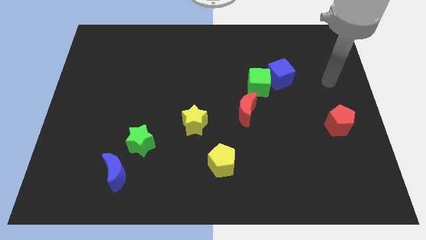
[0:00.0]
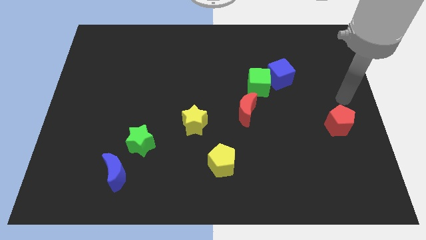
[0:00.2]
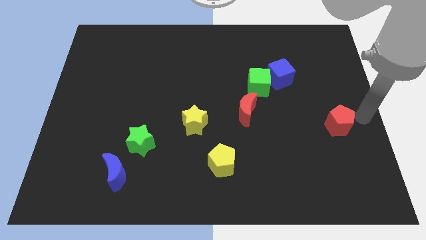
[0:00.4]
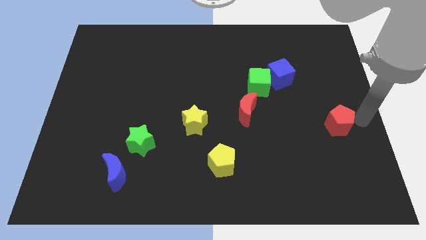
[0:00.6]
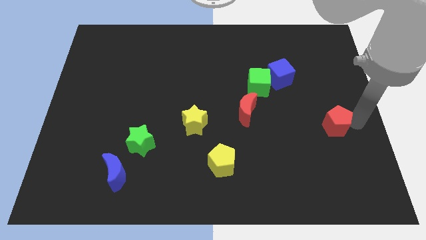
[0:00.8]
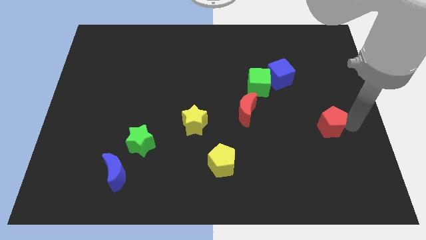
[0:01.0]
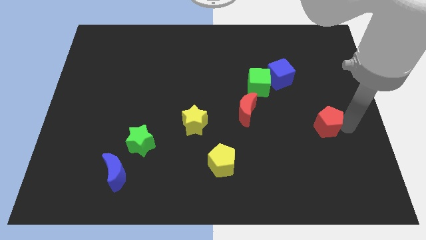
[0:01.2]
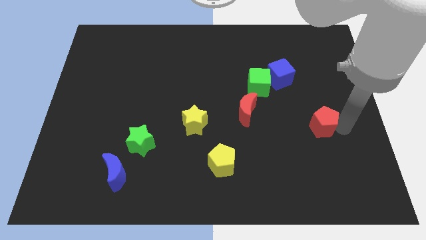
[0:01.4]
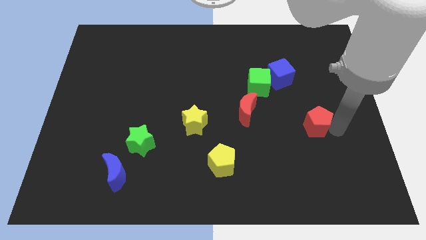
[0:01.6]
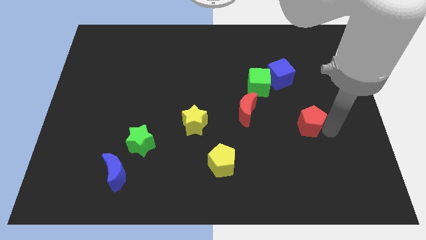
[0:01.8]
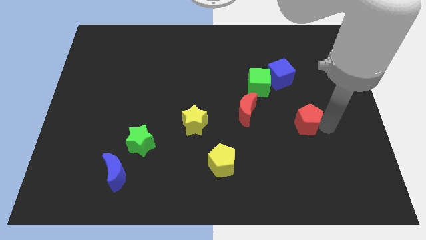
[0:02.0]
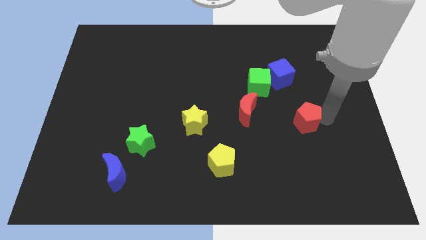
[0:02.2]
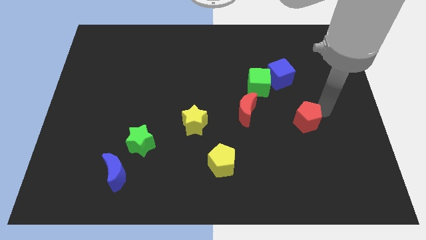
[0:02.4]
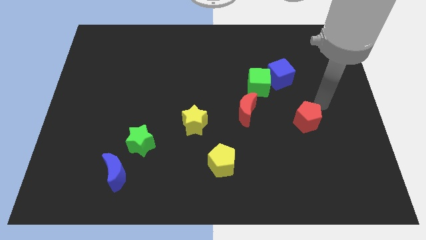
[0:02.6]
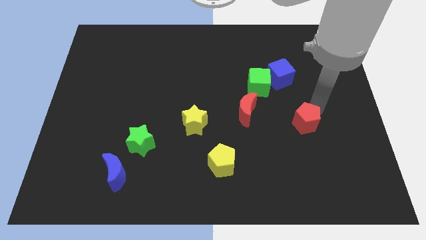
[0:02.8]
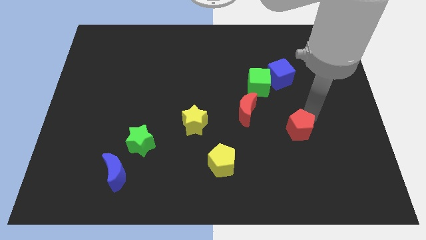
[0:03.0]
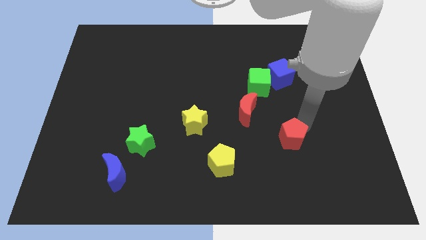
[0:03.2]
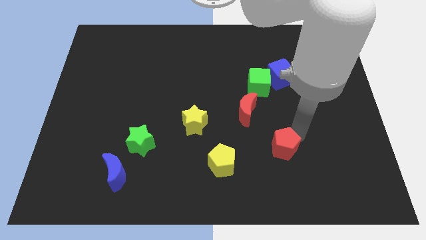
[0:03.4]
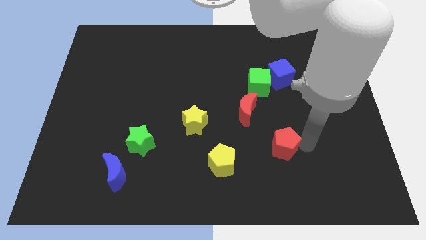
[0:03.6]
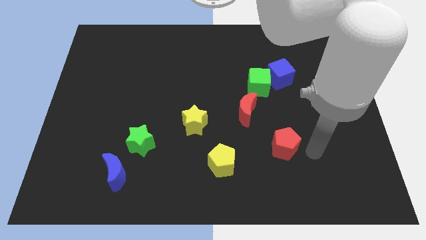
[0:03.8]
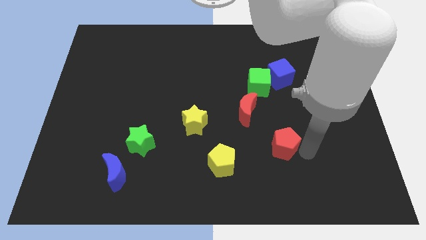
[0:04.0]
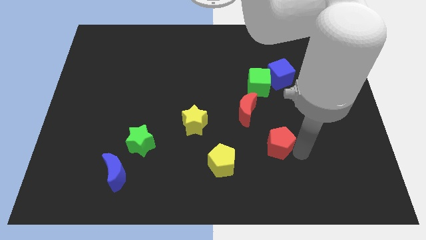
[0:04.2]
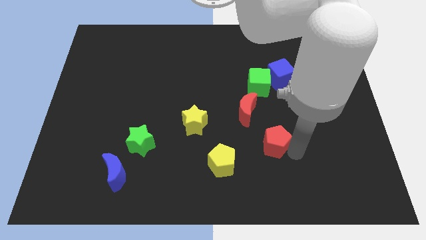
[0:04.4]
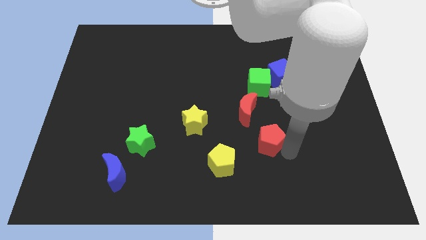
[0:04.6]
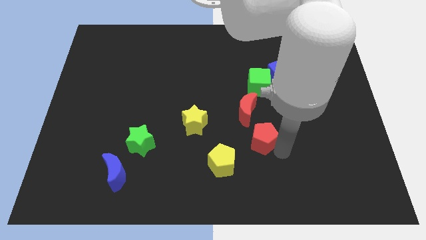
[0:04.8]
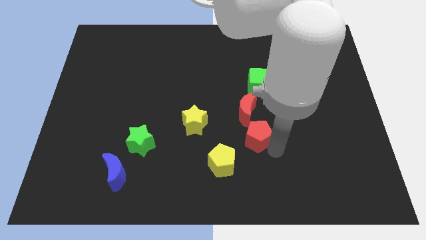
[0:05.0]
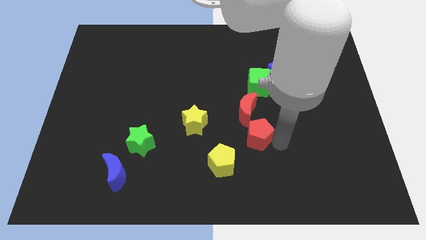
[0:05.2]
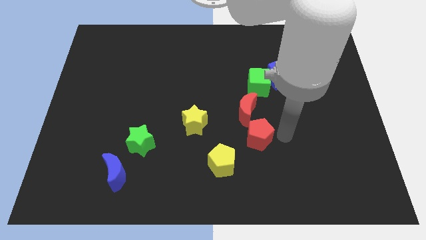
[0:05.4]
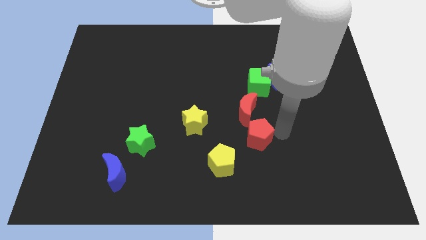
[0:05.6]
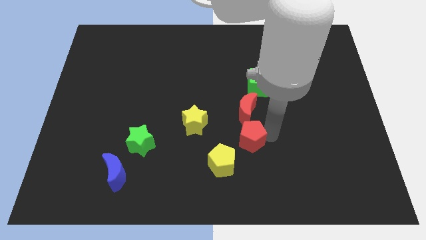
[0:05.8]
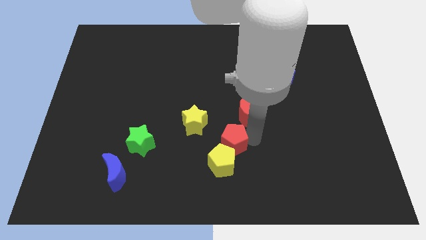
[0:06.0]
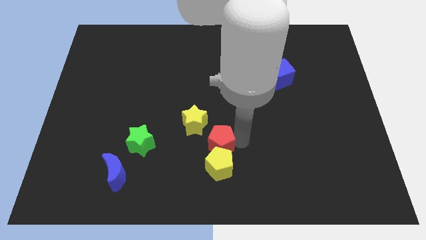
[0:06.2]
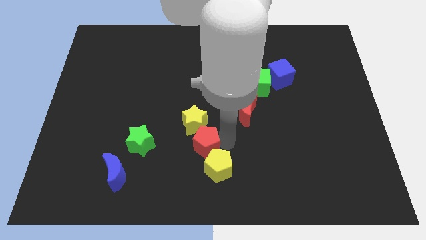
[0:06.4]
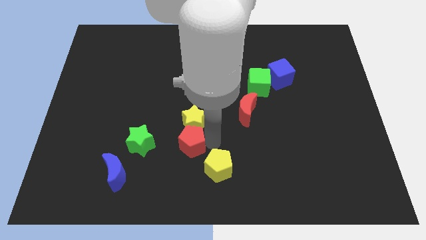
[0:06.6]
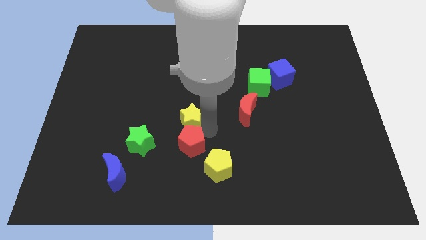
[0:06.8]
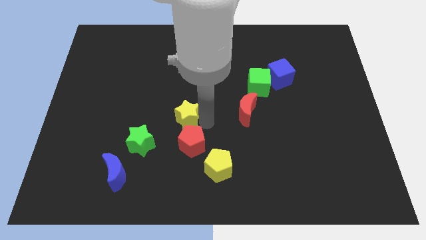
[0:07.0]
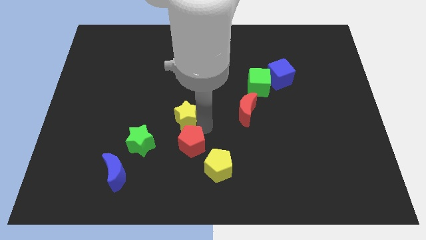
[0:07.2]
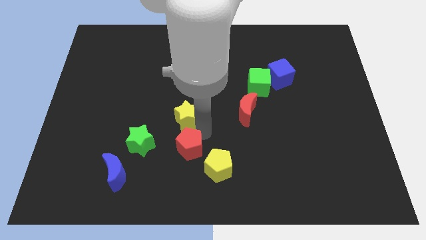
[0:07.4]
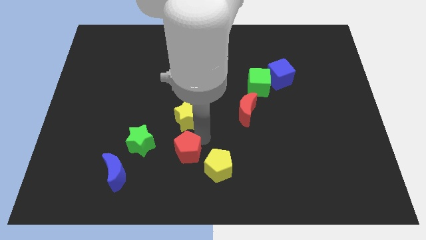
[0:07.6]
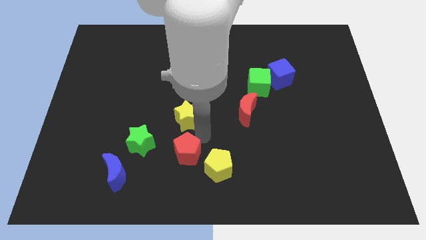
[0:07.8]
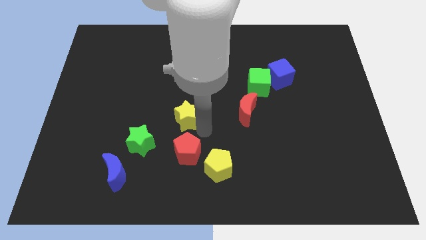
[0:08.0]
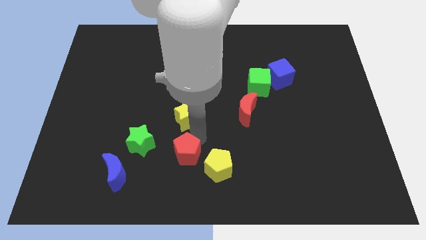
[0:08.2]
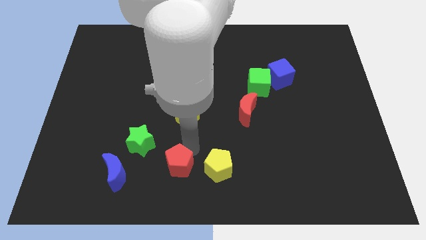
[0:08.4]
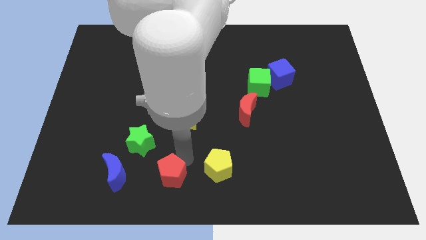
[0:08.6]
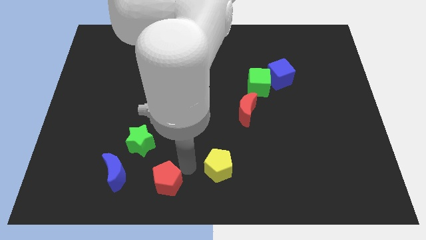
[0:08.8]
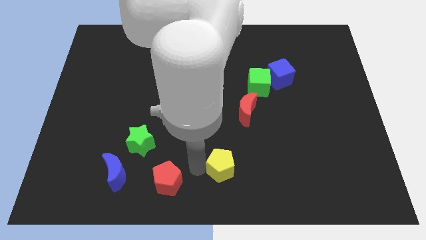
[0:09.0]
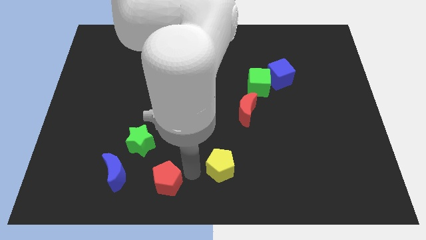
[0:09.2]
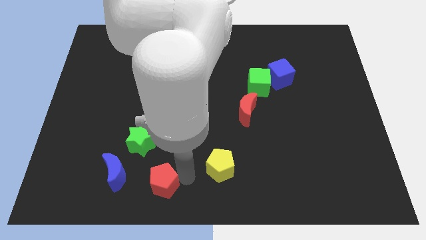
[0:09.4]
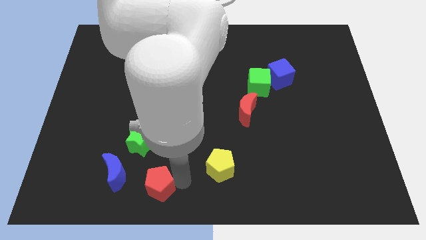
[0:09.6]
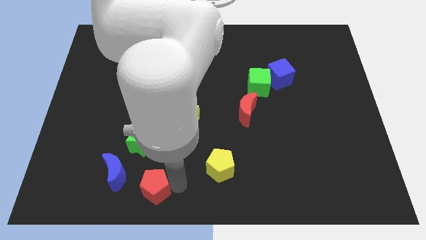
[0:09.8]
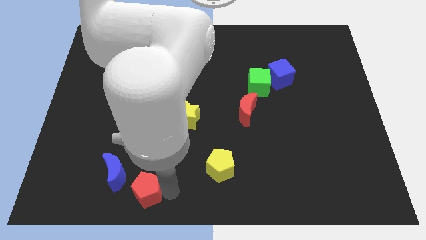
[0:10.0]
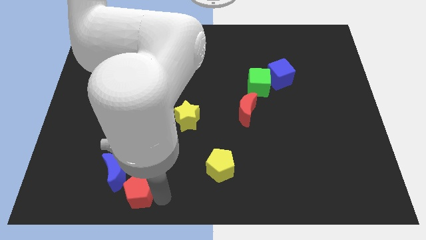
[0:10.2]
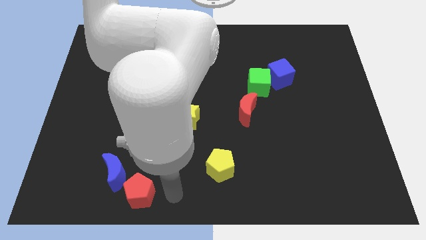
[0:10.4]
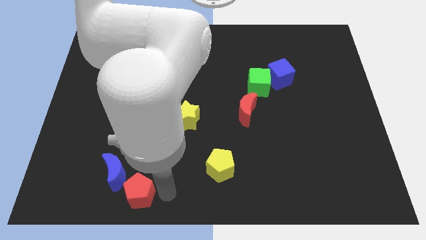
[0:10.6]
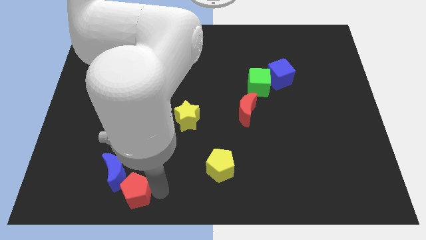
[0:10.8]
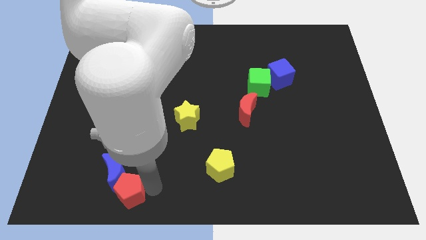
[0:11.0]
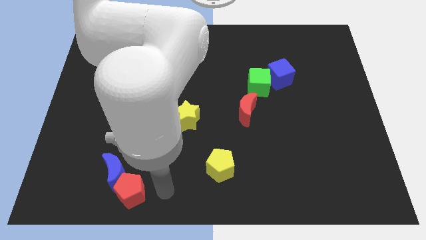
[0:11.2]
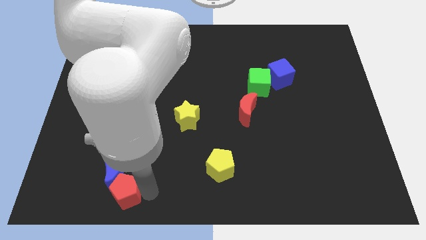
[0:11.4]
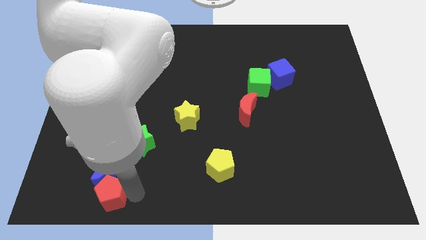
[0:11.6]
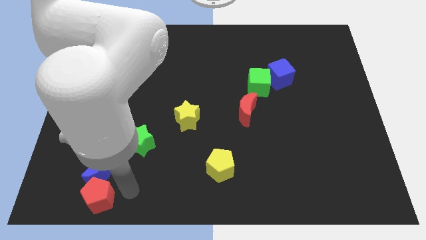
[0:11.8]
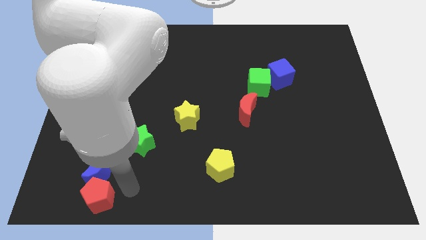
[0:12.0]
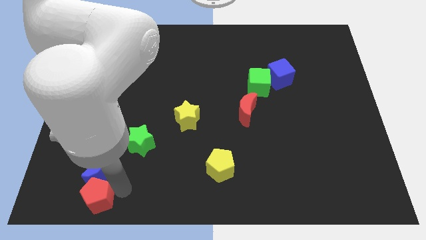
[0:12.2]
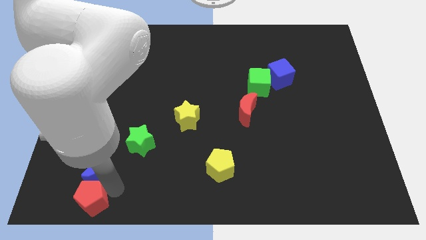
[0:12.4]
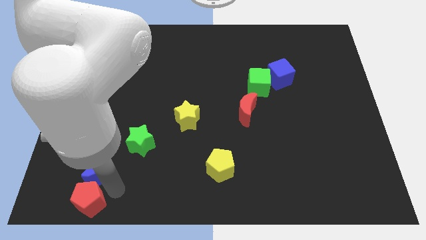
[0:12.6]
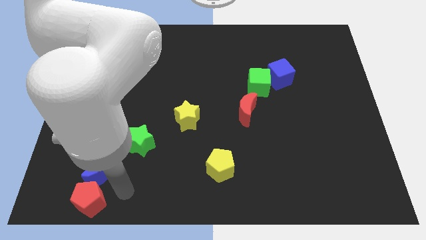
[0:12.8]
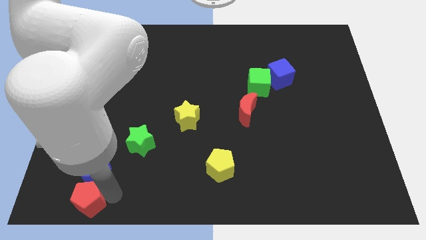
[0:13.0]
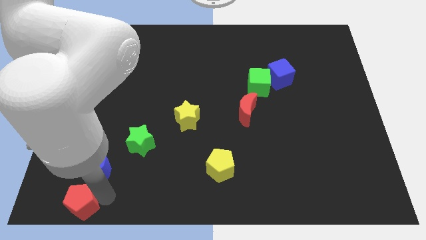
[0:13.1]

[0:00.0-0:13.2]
move the red pentagon to the bottom left of the board
